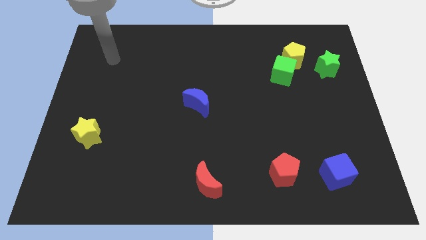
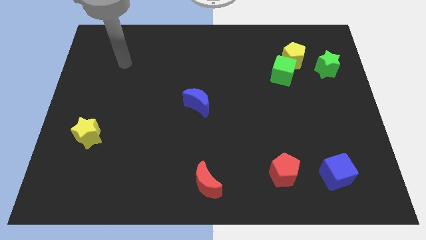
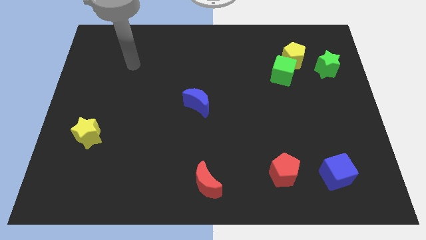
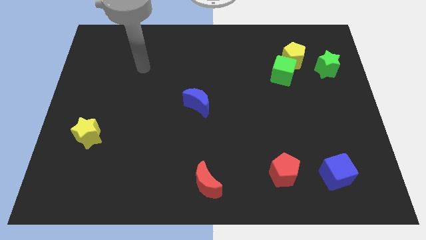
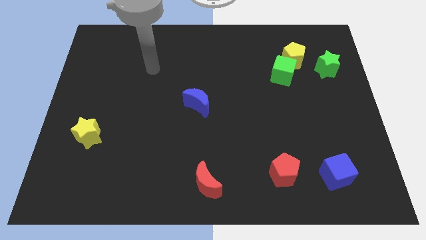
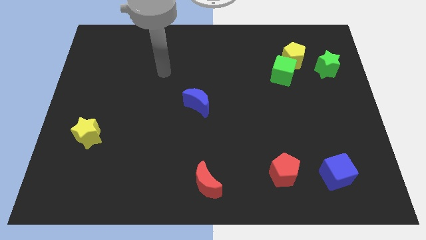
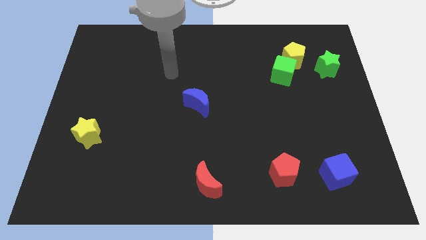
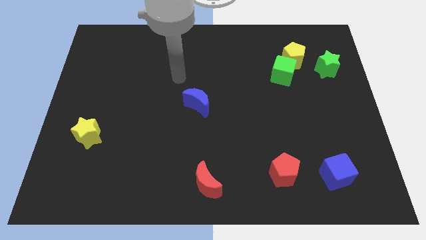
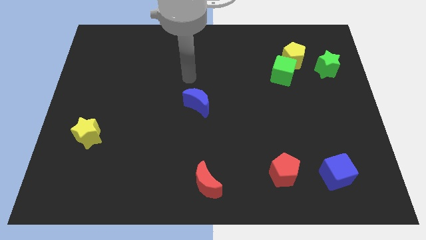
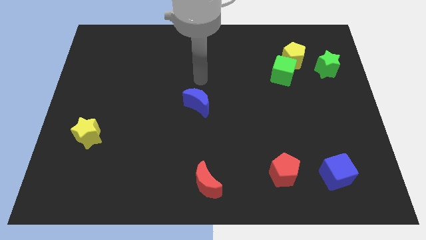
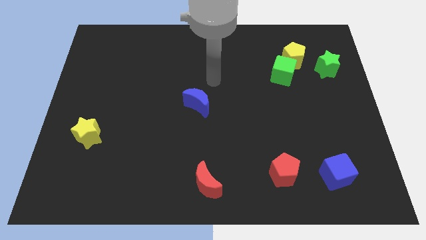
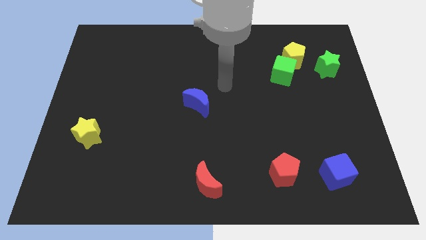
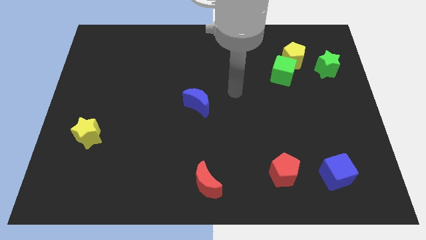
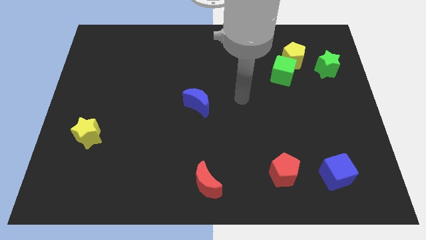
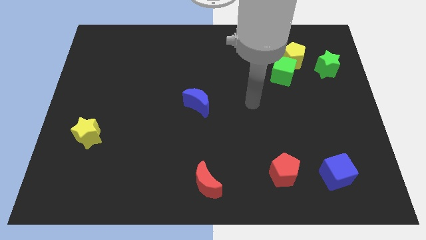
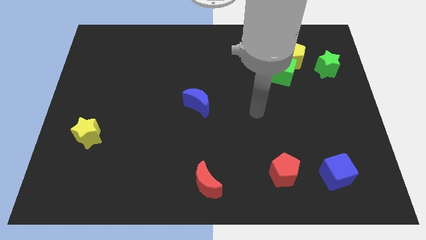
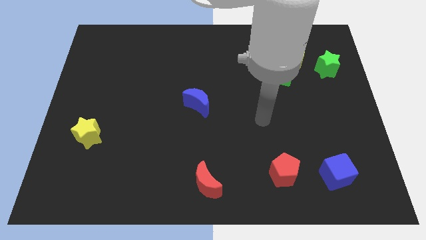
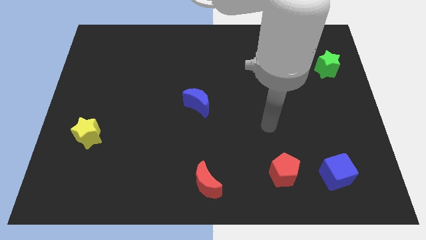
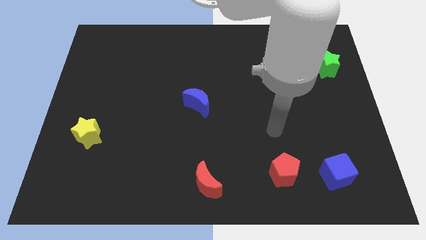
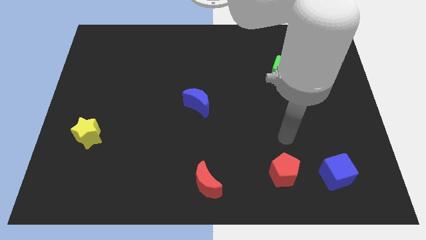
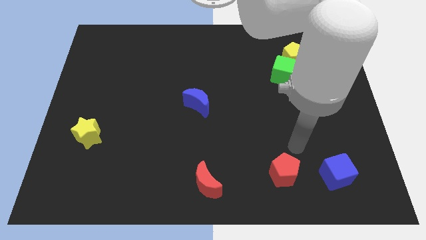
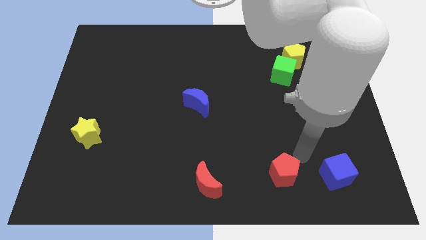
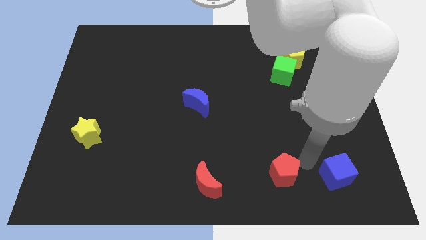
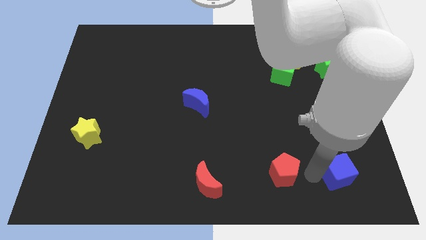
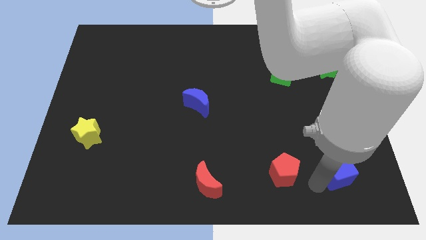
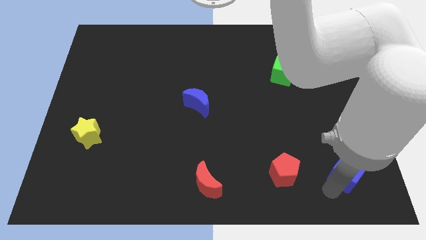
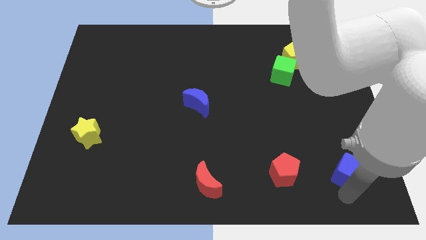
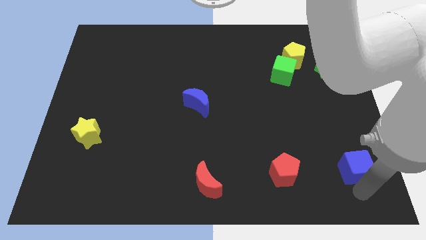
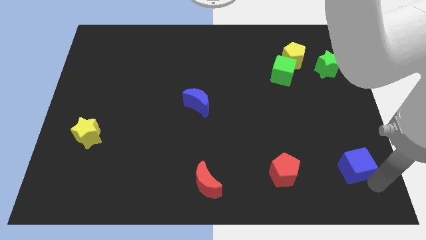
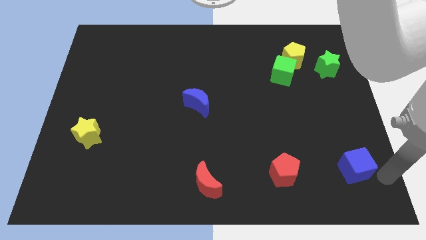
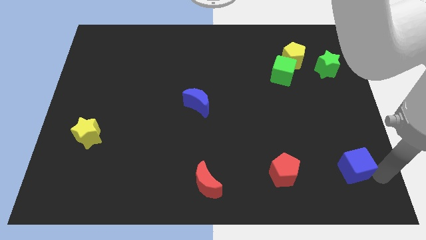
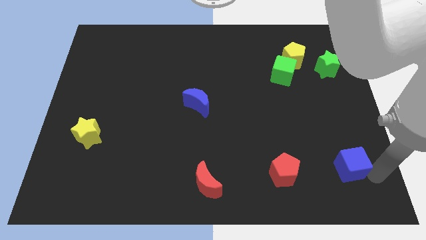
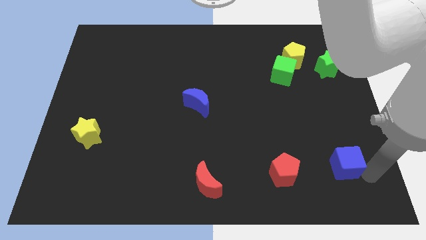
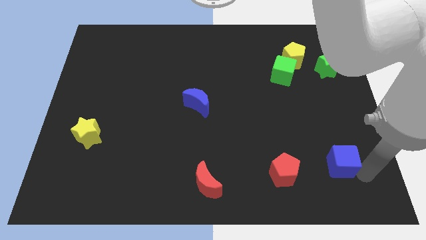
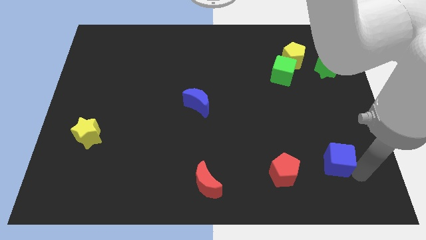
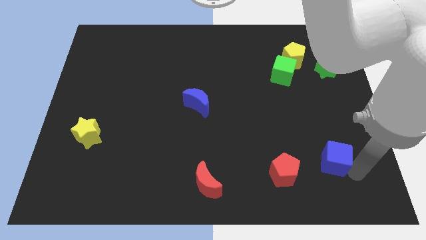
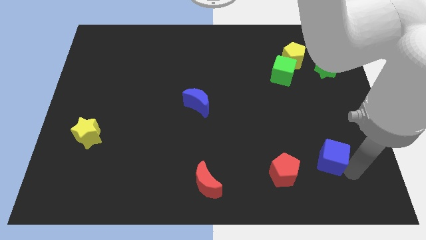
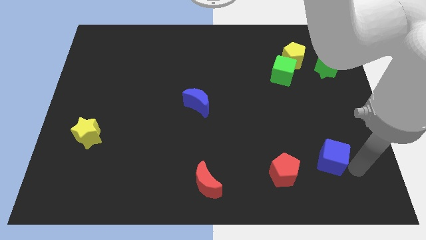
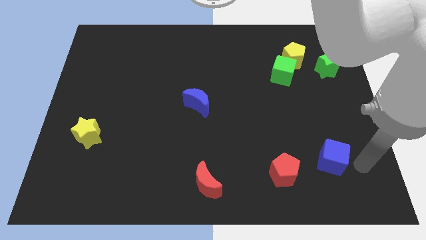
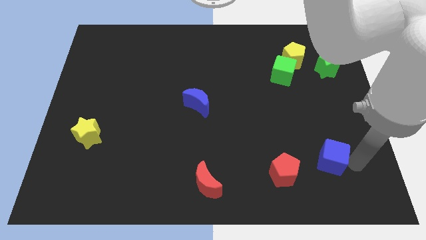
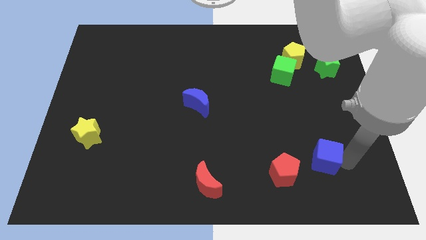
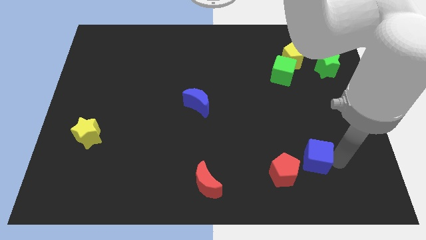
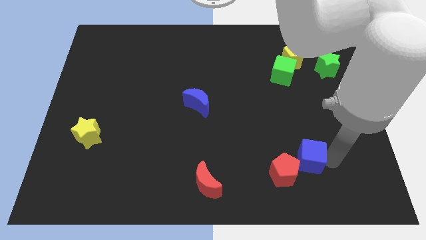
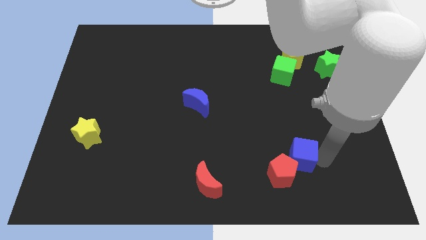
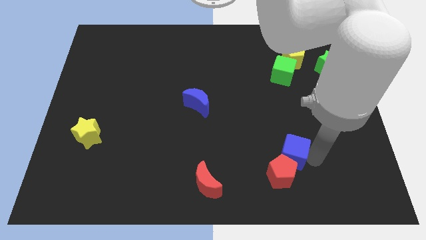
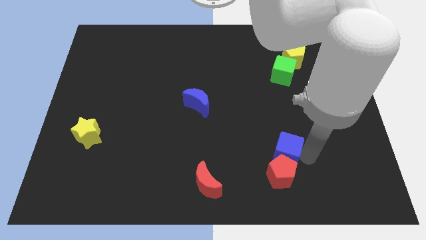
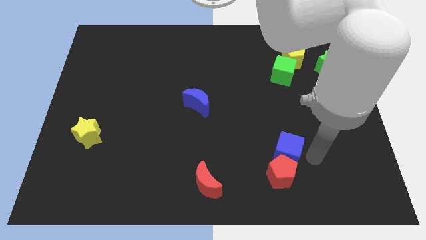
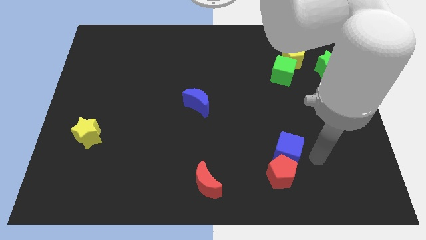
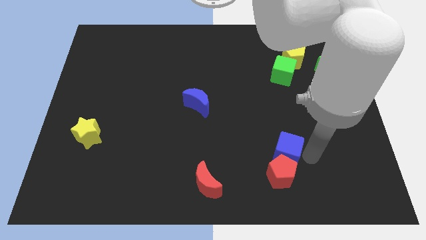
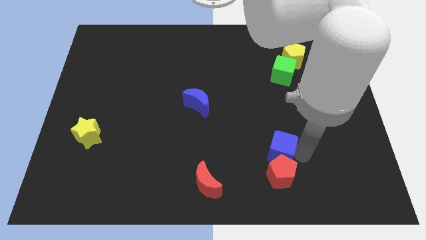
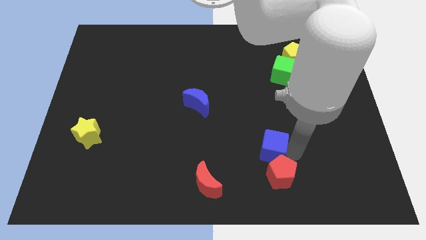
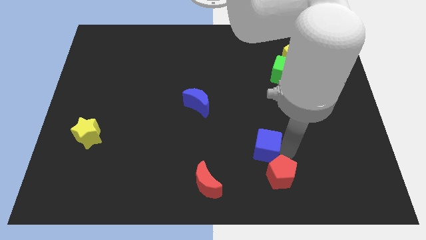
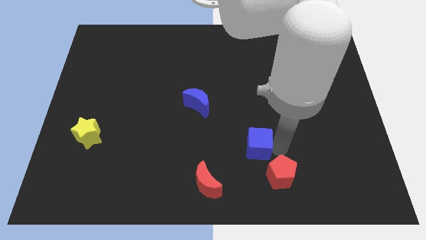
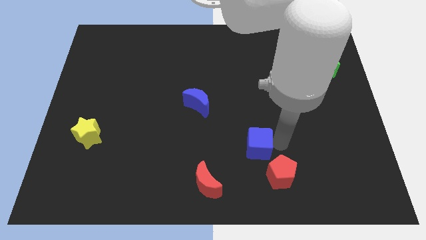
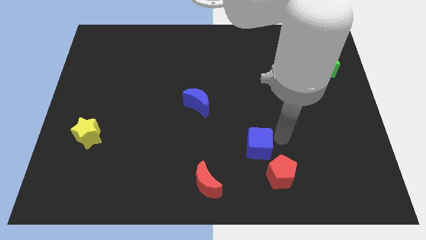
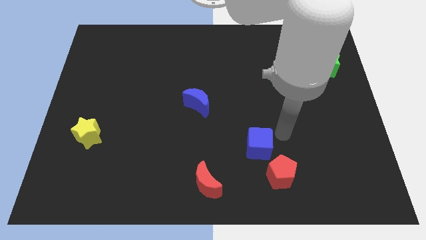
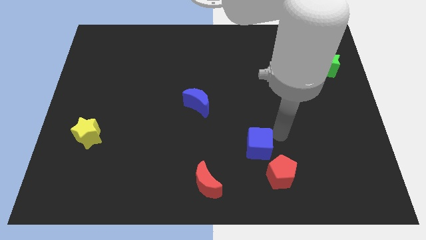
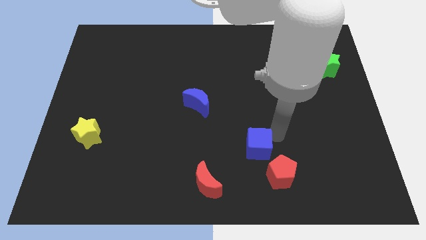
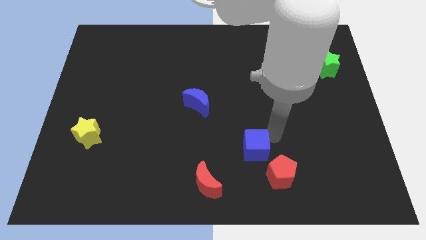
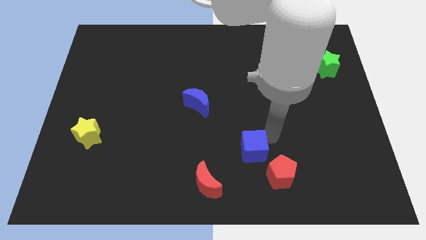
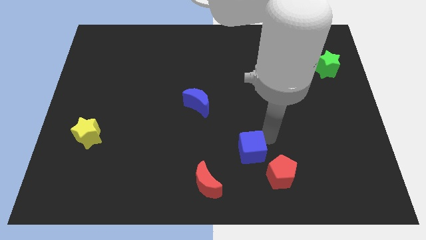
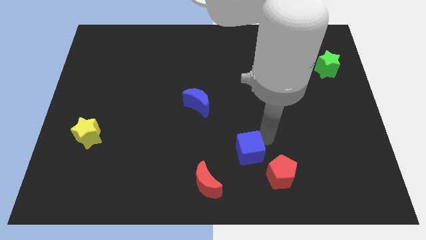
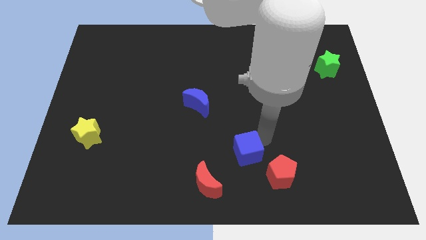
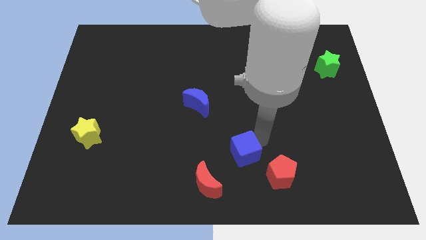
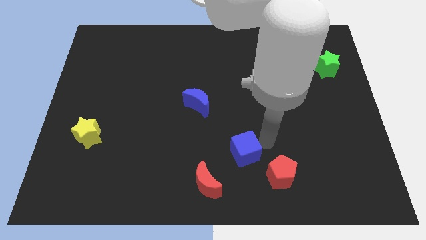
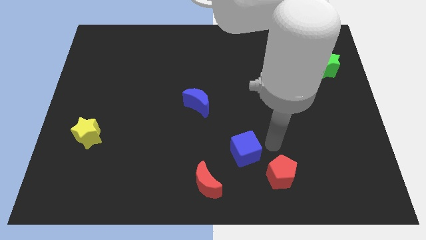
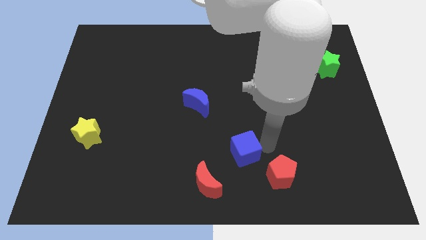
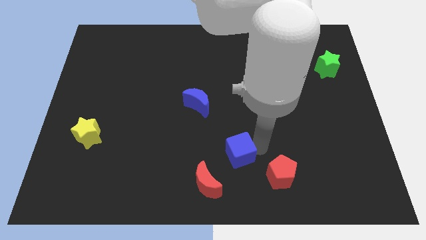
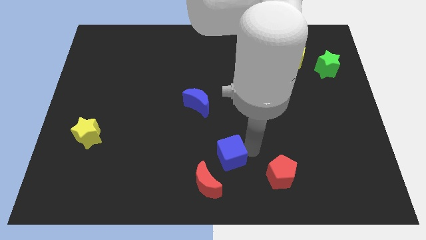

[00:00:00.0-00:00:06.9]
slide the blue cube left

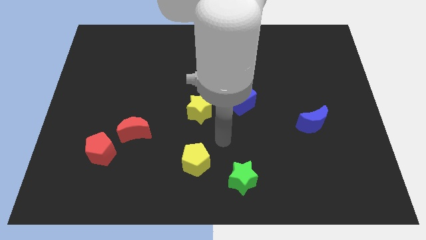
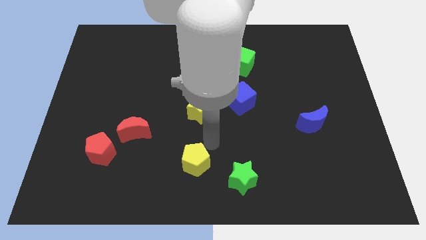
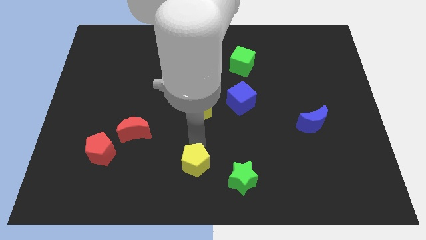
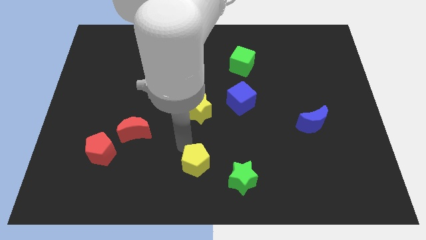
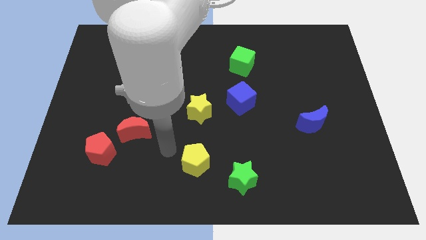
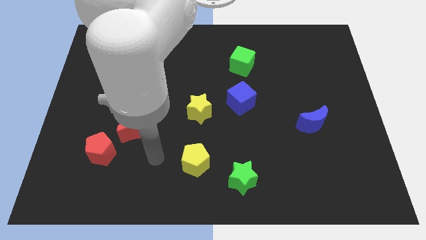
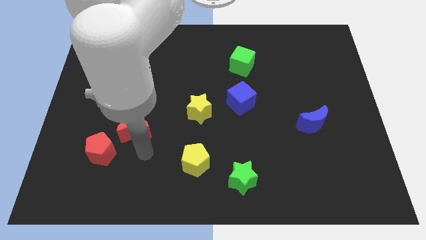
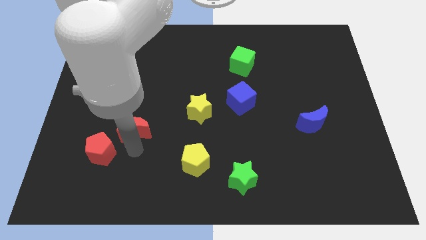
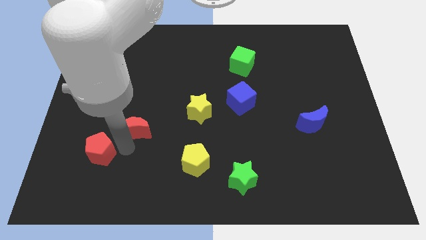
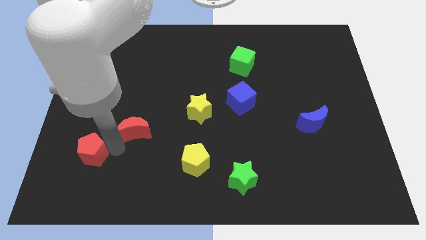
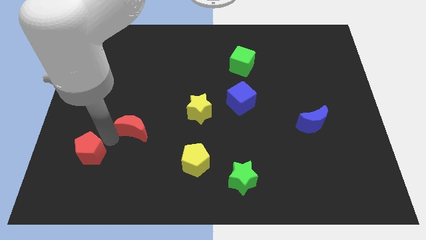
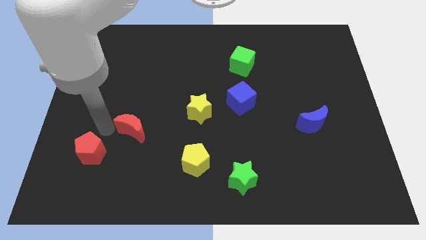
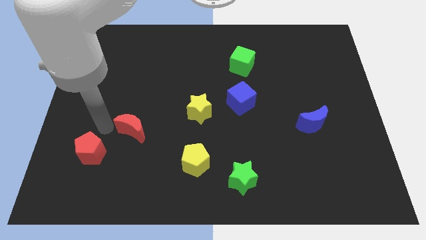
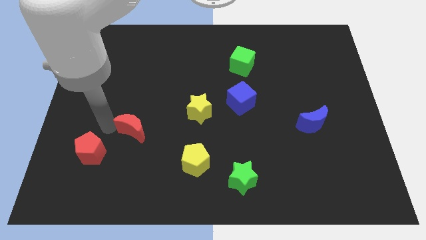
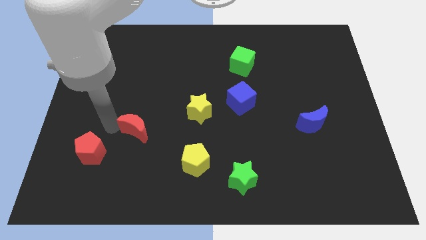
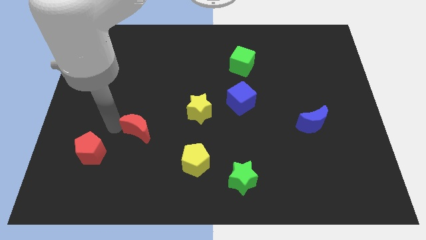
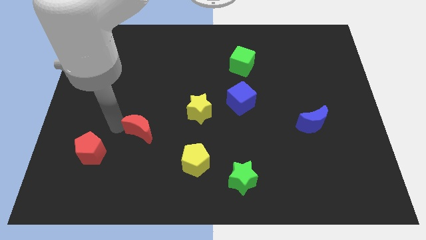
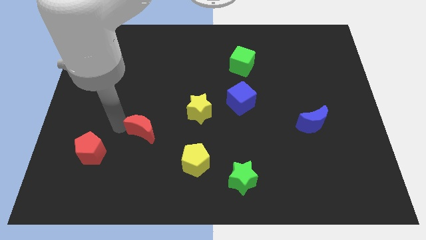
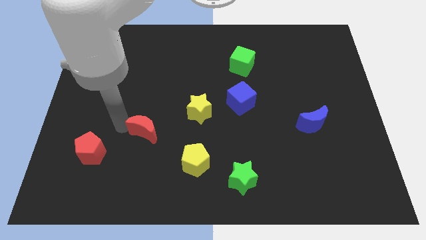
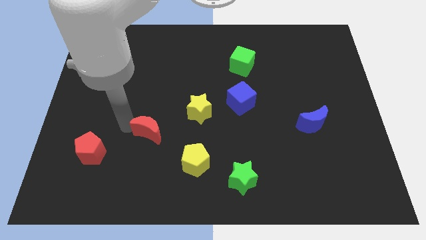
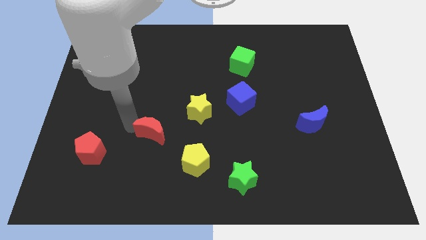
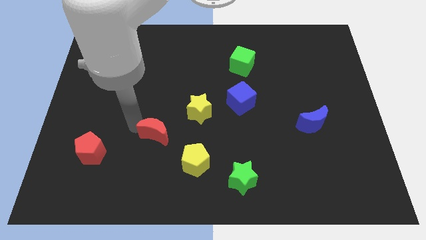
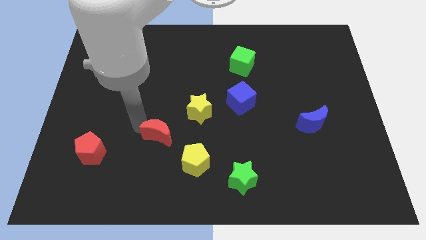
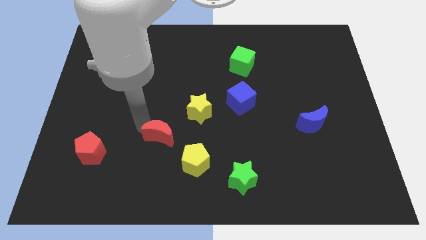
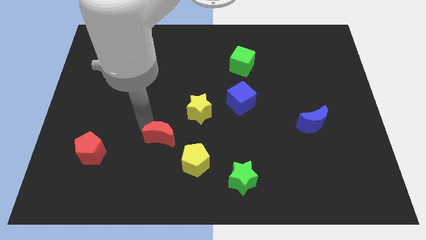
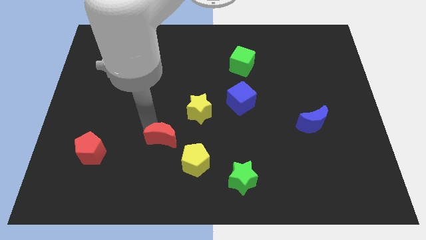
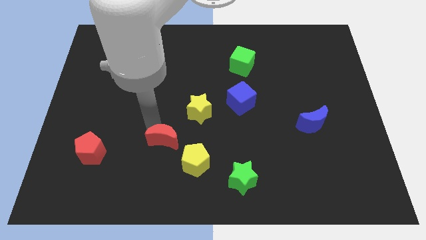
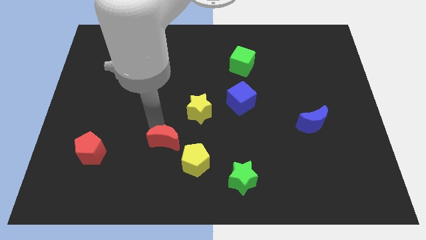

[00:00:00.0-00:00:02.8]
push the red moon a little bit to the right
